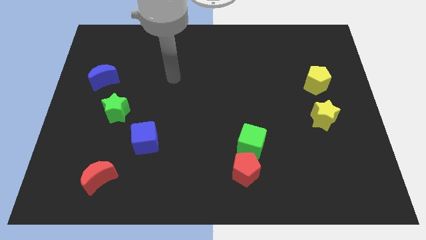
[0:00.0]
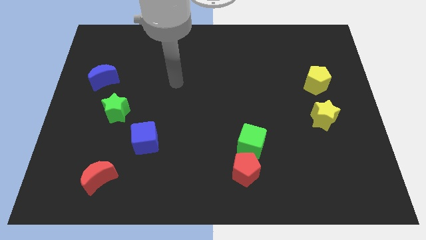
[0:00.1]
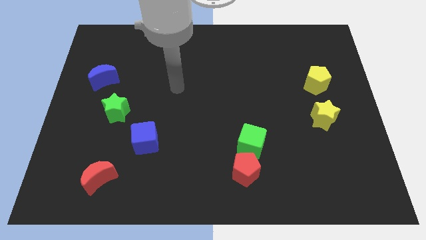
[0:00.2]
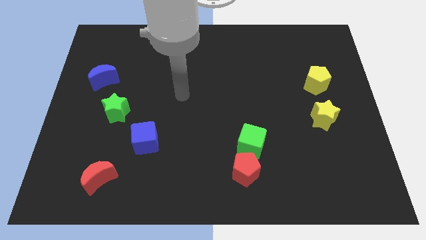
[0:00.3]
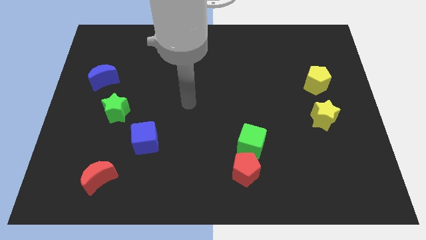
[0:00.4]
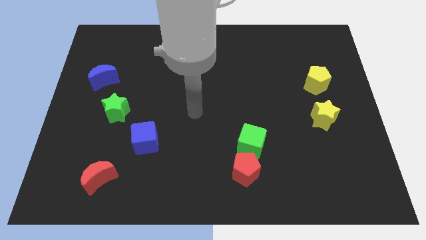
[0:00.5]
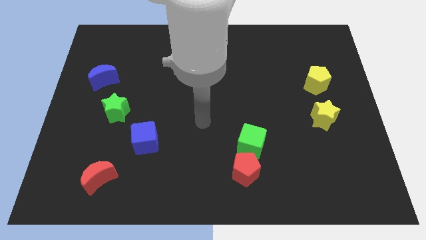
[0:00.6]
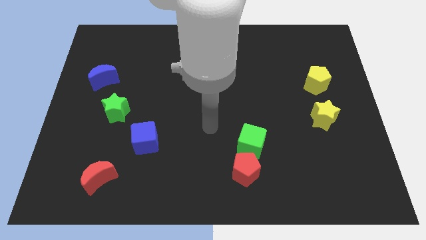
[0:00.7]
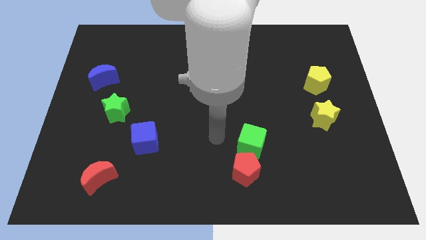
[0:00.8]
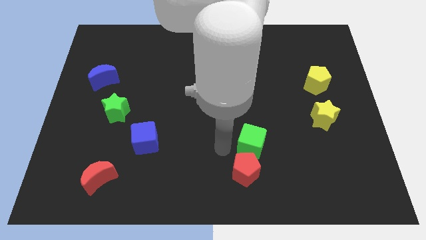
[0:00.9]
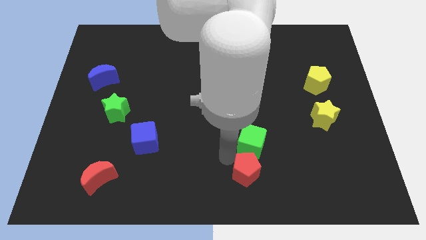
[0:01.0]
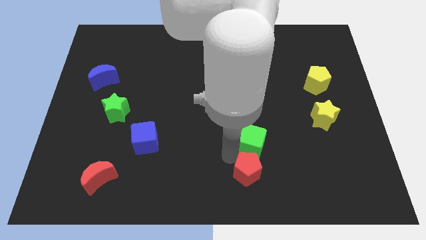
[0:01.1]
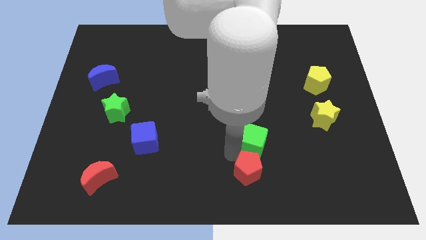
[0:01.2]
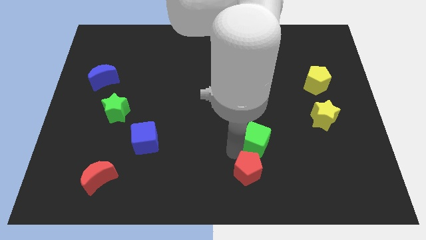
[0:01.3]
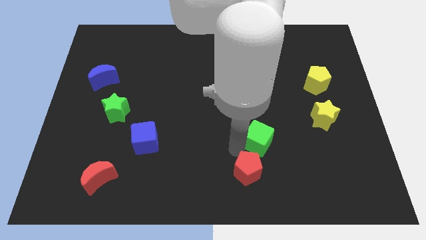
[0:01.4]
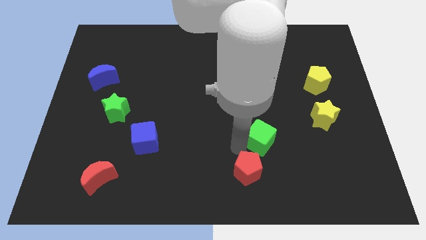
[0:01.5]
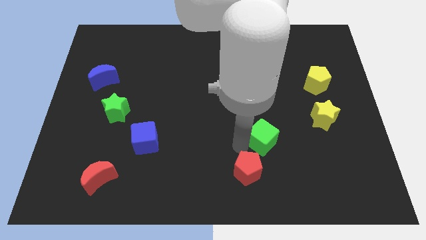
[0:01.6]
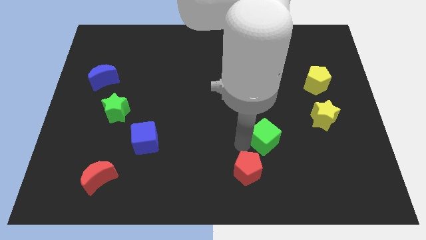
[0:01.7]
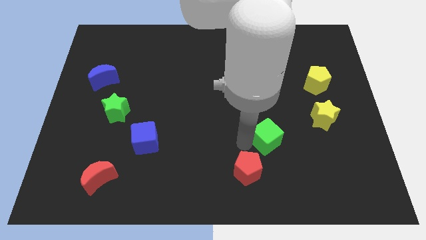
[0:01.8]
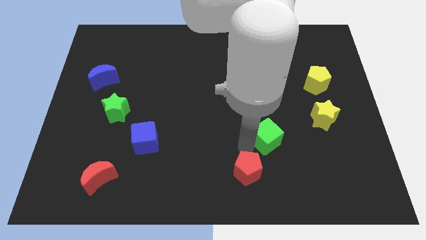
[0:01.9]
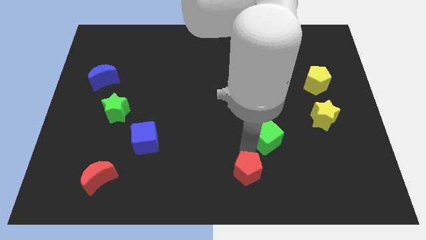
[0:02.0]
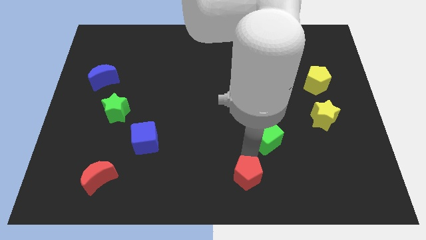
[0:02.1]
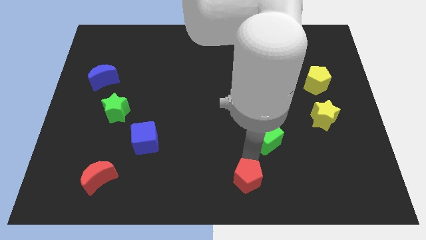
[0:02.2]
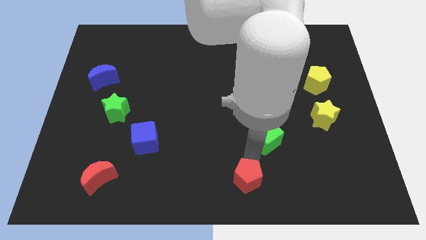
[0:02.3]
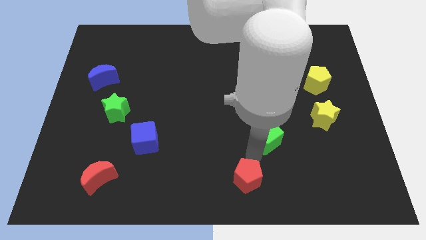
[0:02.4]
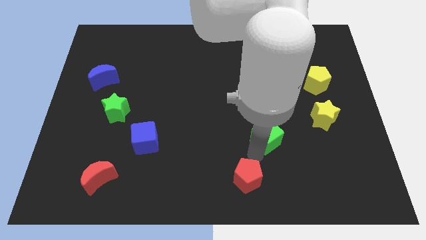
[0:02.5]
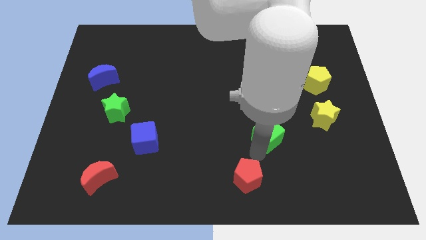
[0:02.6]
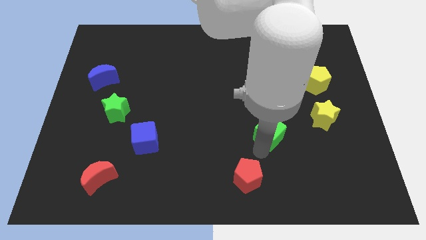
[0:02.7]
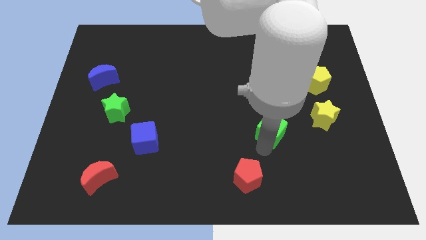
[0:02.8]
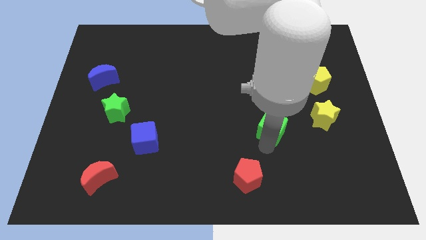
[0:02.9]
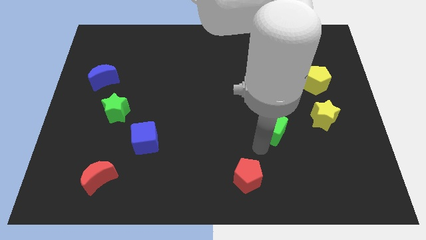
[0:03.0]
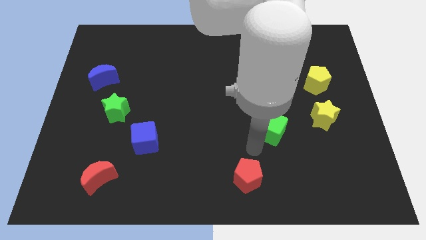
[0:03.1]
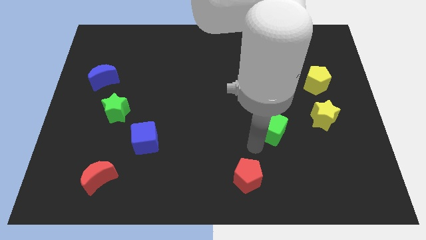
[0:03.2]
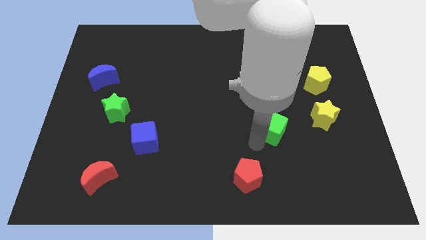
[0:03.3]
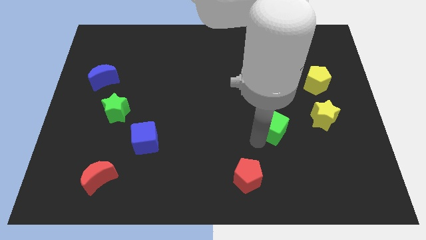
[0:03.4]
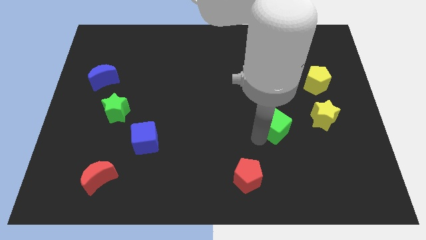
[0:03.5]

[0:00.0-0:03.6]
slightly slide the green cube diagonally up and to the right

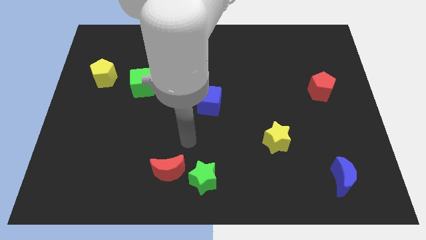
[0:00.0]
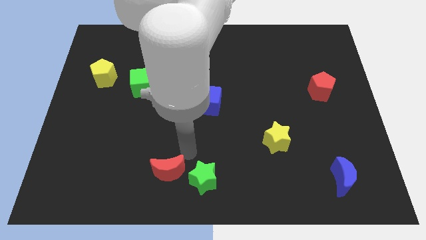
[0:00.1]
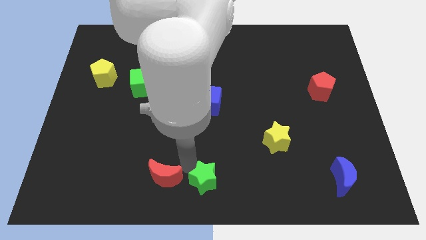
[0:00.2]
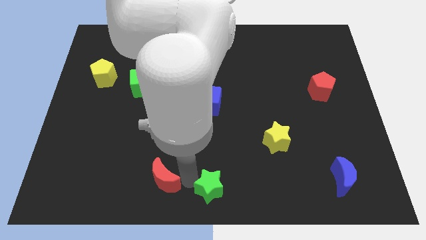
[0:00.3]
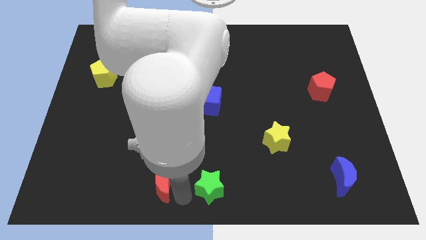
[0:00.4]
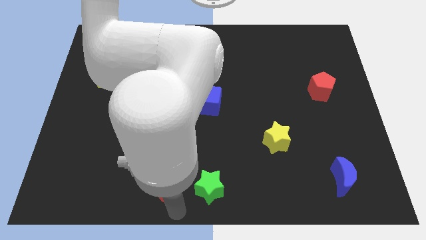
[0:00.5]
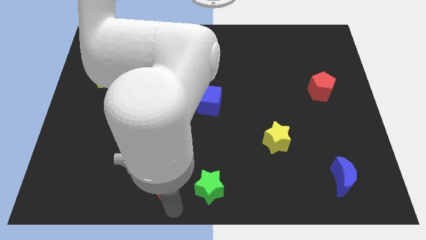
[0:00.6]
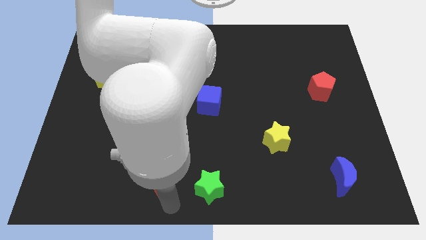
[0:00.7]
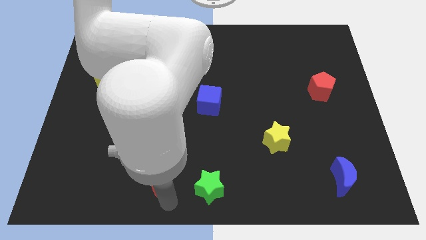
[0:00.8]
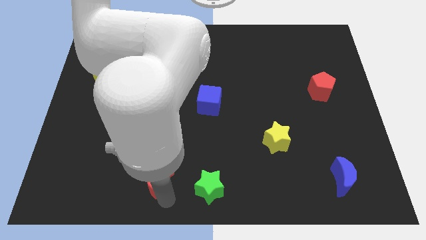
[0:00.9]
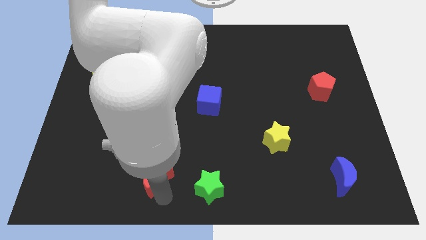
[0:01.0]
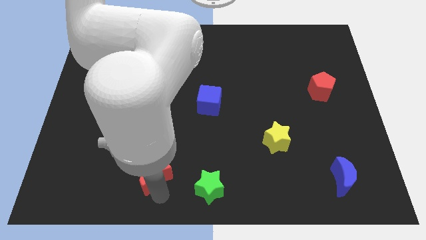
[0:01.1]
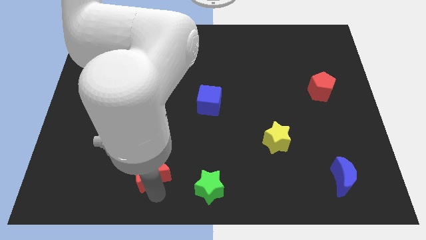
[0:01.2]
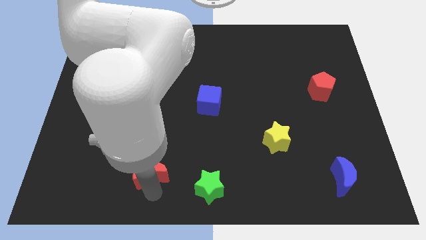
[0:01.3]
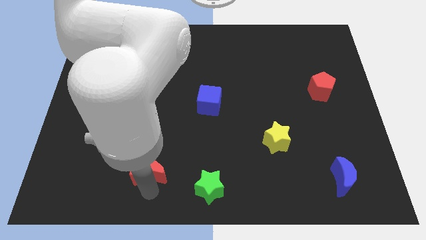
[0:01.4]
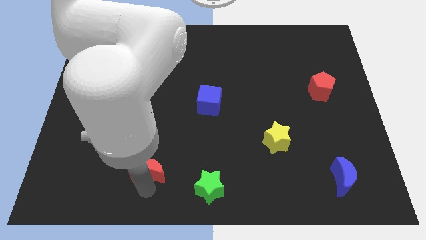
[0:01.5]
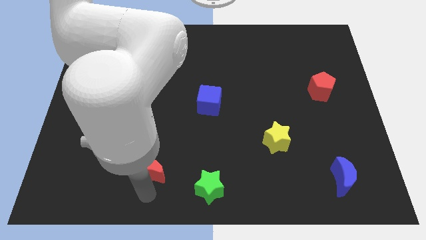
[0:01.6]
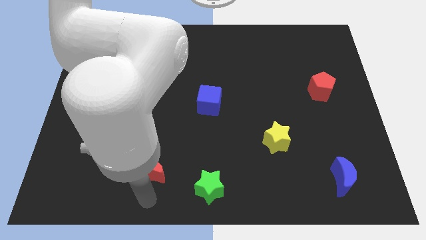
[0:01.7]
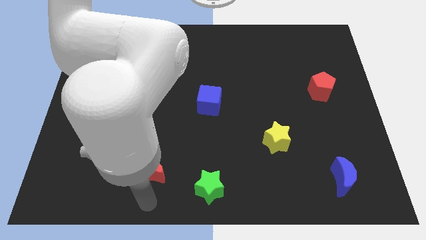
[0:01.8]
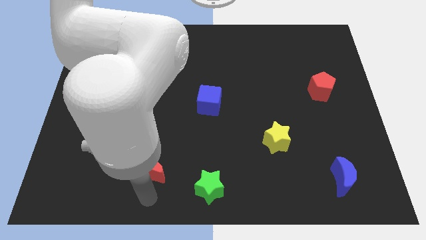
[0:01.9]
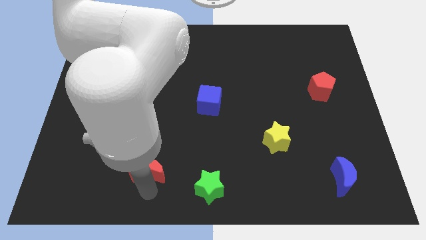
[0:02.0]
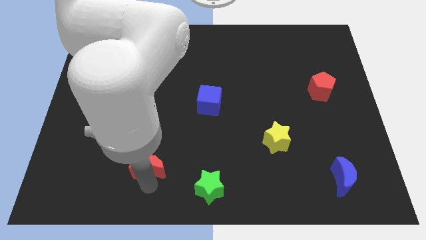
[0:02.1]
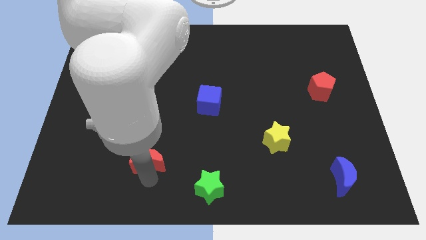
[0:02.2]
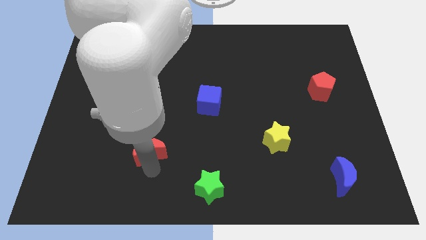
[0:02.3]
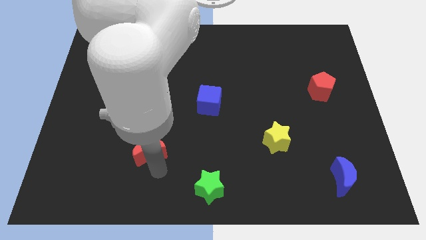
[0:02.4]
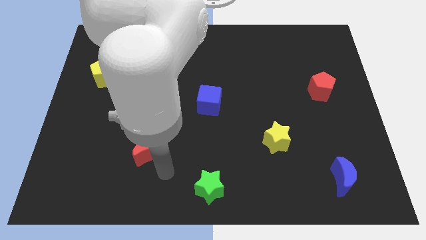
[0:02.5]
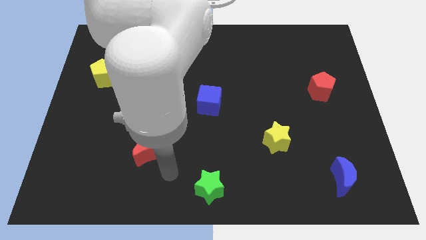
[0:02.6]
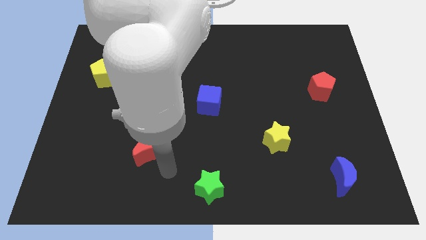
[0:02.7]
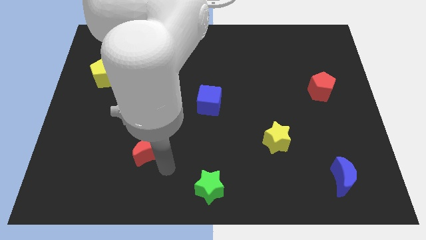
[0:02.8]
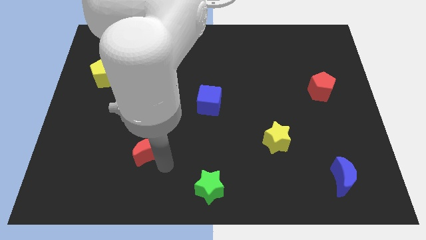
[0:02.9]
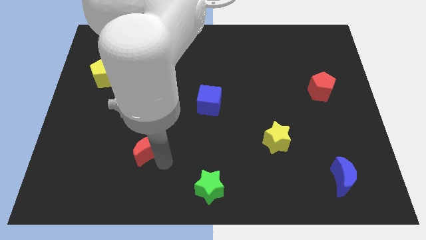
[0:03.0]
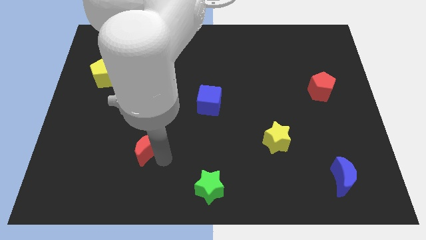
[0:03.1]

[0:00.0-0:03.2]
push the red moon a little up and then to the left

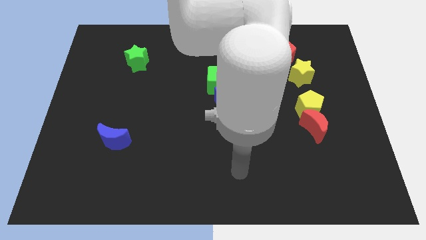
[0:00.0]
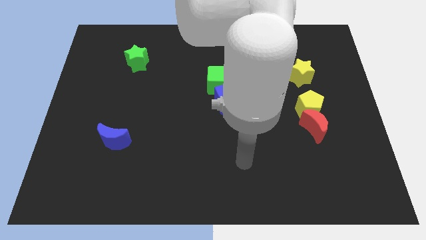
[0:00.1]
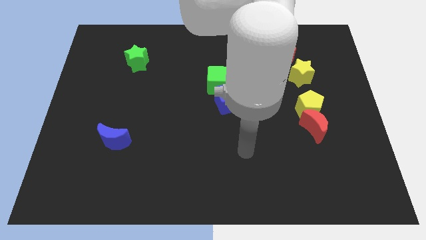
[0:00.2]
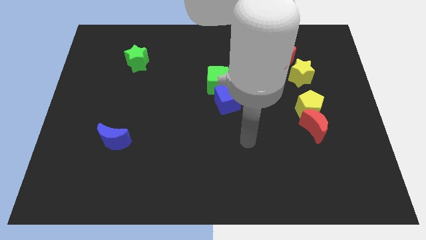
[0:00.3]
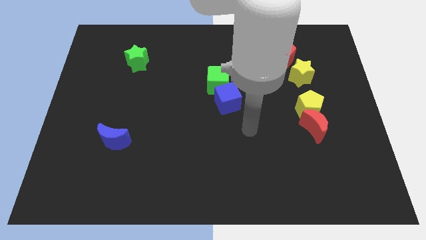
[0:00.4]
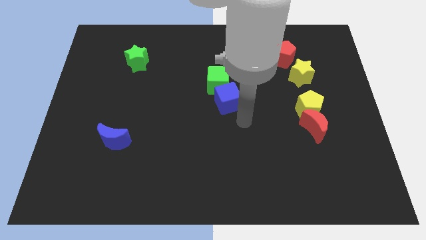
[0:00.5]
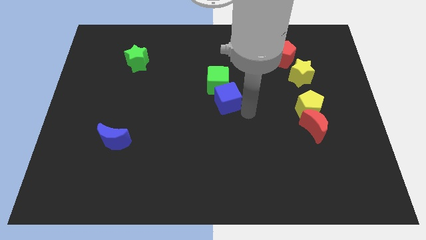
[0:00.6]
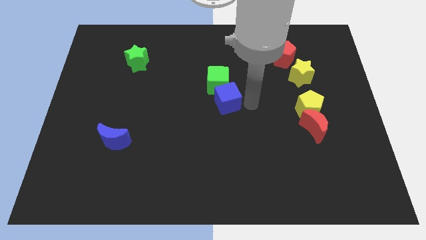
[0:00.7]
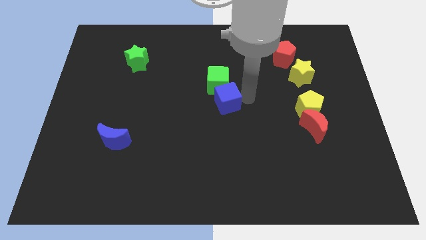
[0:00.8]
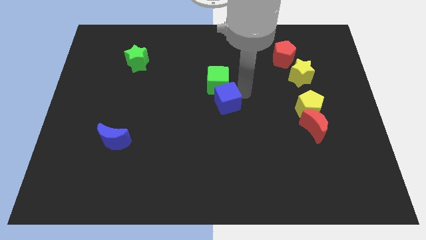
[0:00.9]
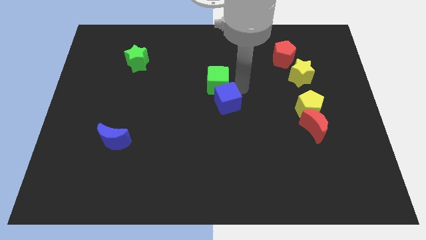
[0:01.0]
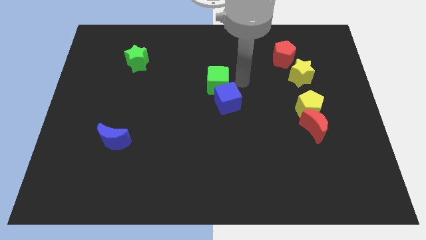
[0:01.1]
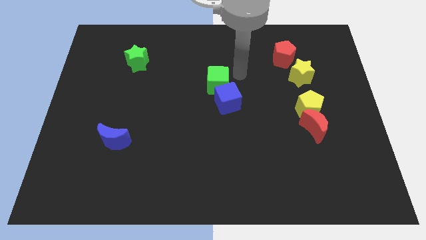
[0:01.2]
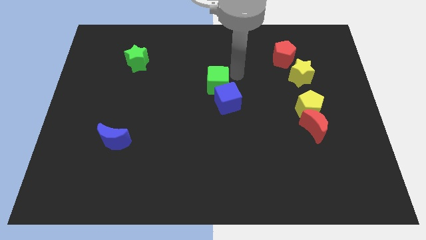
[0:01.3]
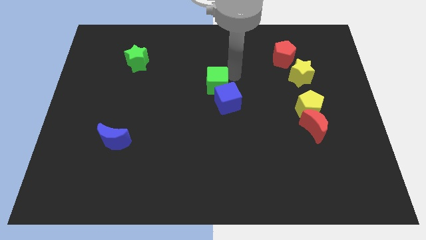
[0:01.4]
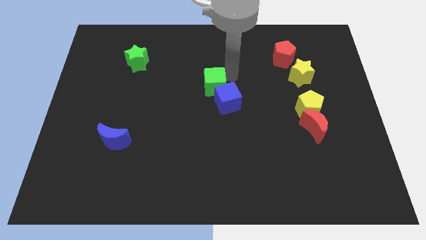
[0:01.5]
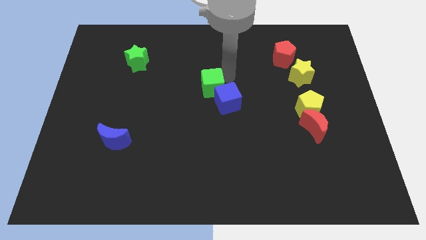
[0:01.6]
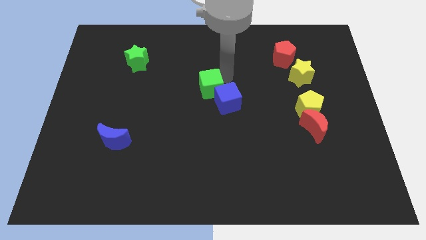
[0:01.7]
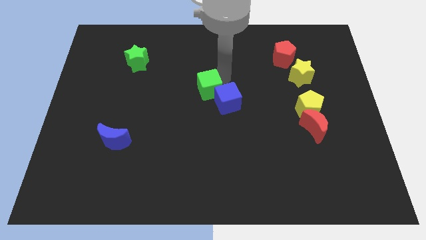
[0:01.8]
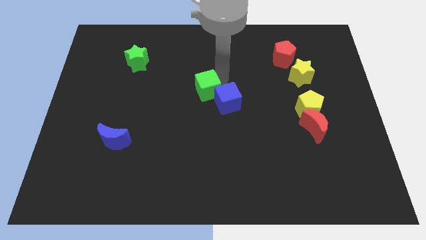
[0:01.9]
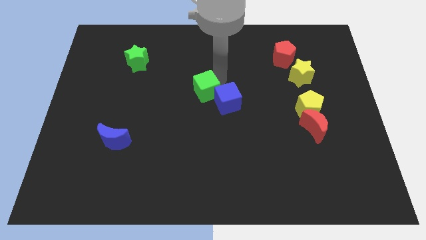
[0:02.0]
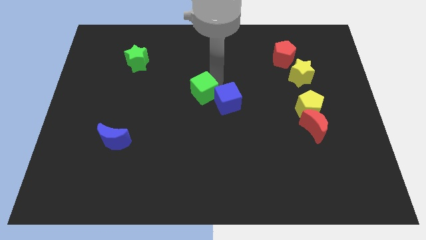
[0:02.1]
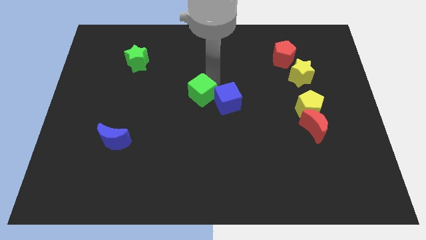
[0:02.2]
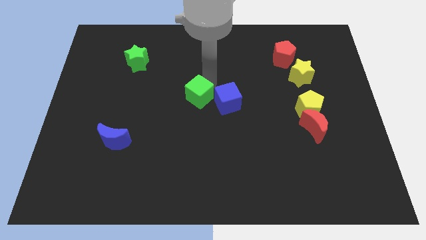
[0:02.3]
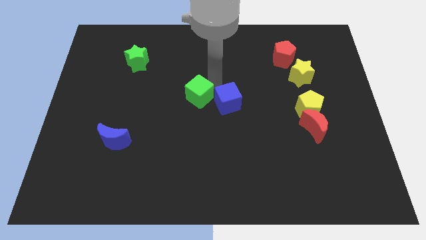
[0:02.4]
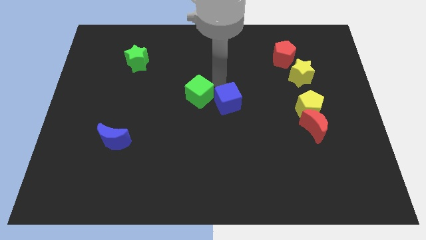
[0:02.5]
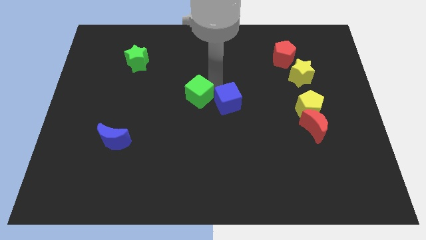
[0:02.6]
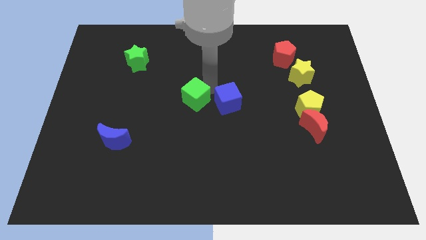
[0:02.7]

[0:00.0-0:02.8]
slightly move the green cube diagonally down and to the left
